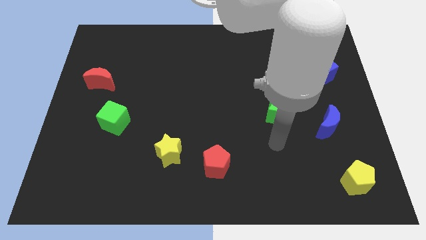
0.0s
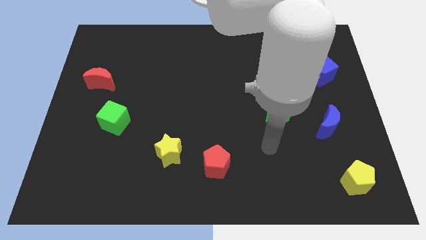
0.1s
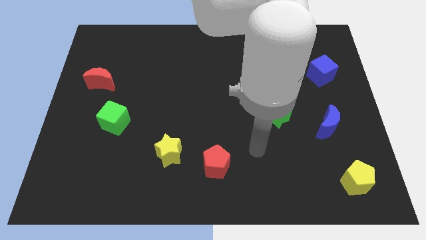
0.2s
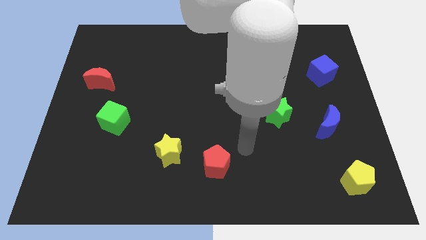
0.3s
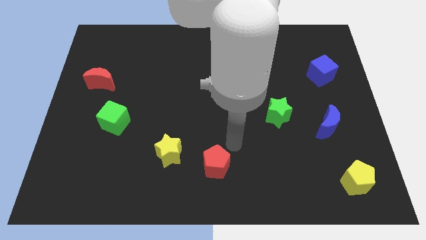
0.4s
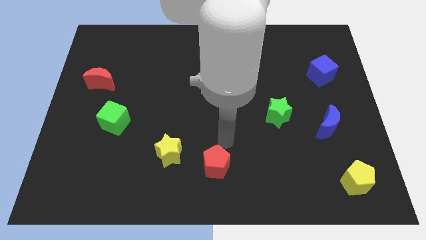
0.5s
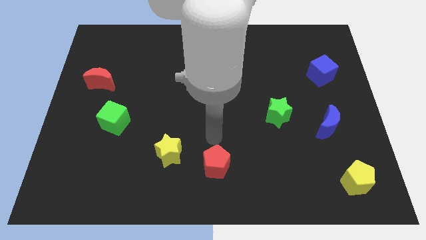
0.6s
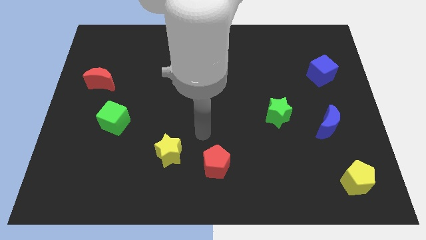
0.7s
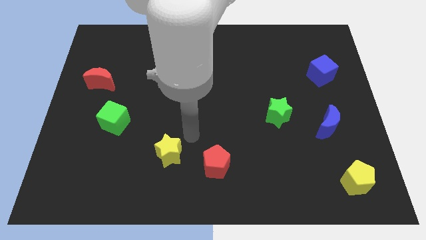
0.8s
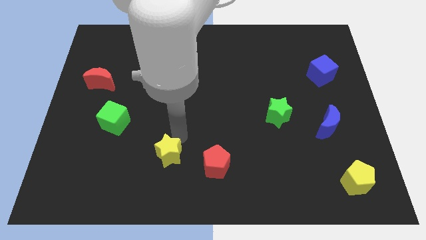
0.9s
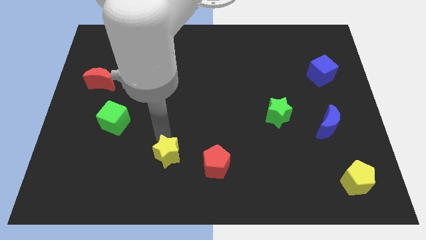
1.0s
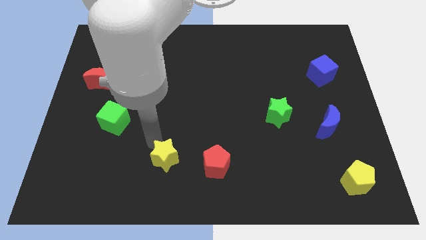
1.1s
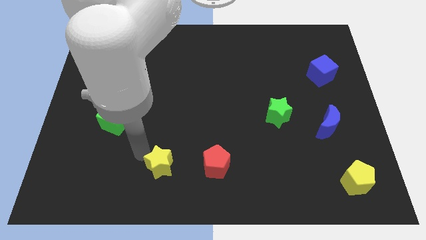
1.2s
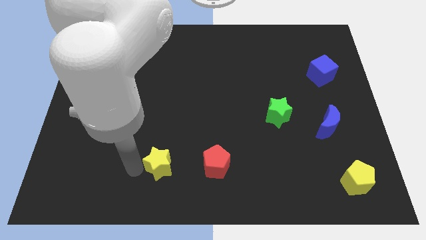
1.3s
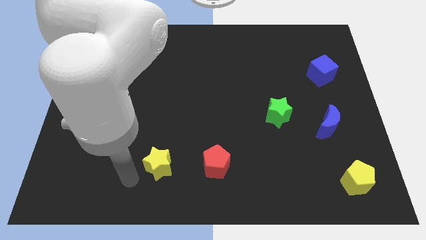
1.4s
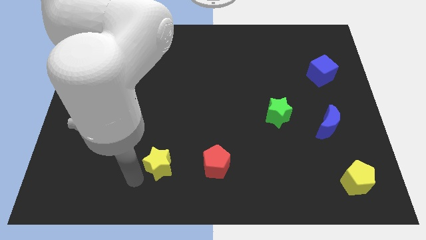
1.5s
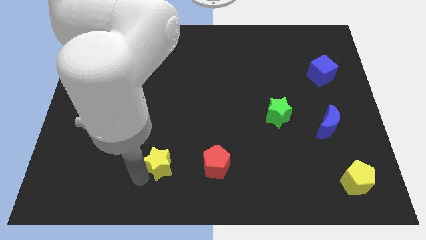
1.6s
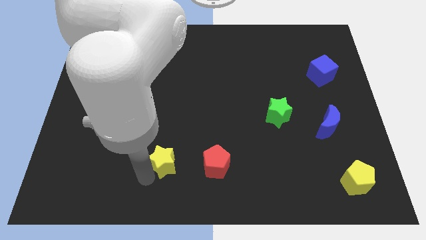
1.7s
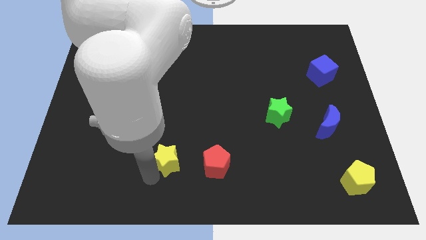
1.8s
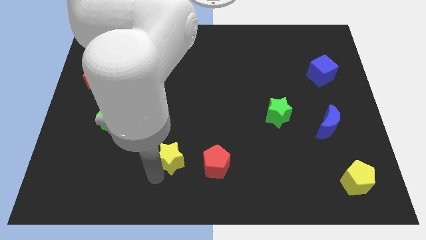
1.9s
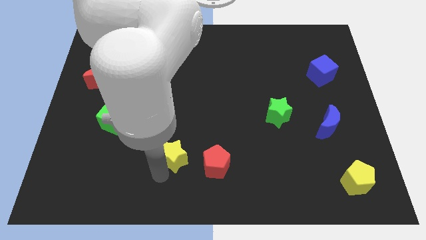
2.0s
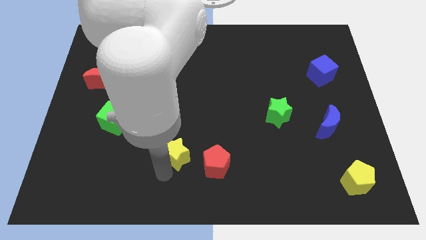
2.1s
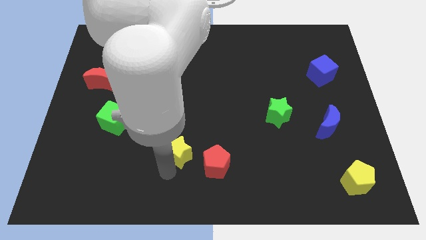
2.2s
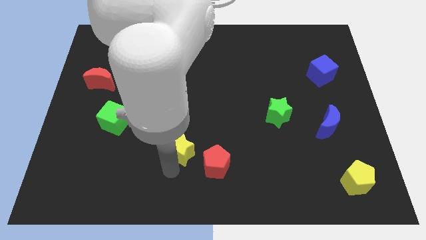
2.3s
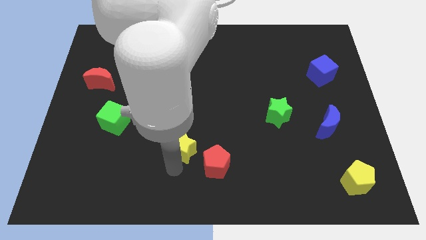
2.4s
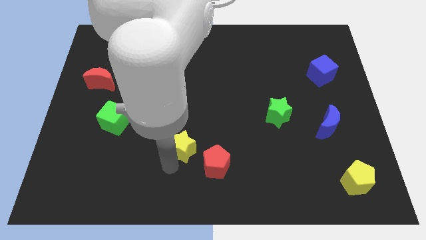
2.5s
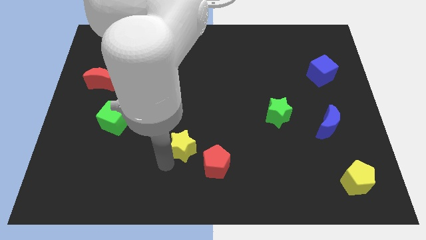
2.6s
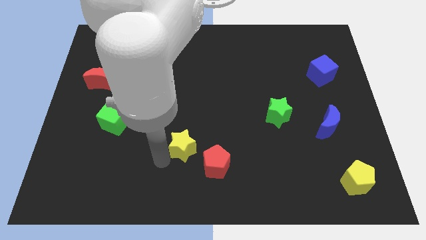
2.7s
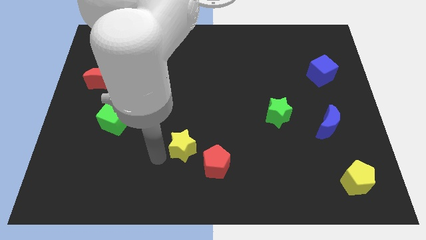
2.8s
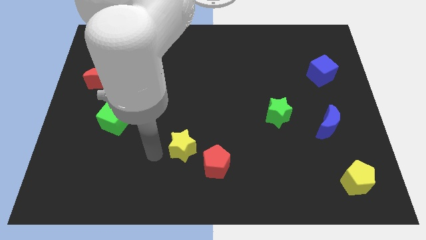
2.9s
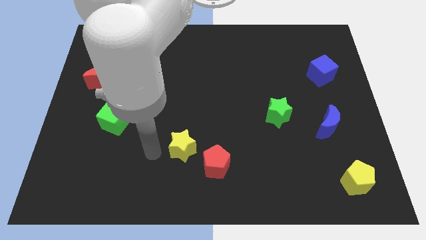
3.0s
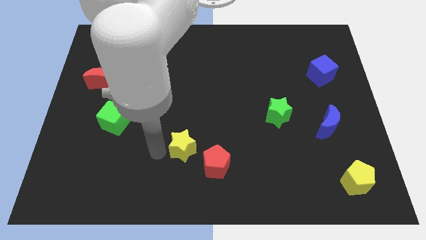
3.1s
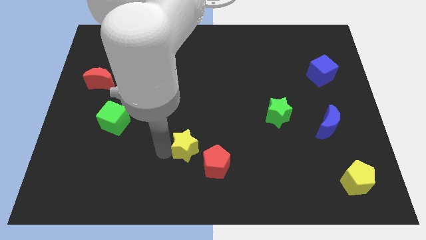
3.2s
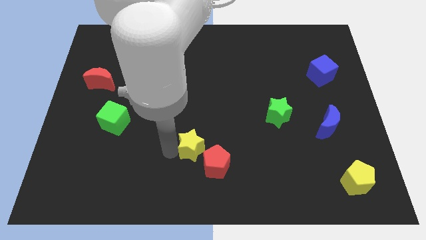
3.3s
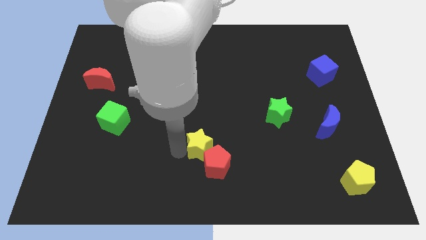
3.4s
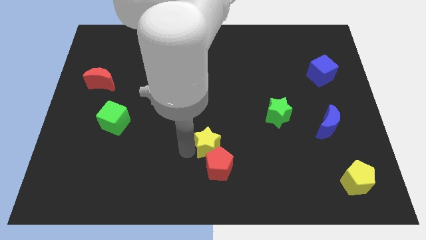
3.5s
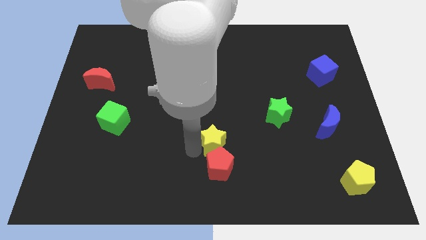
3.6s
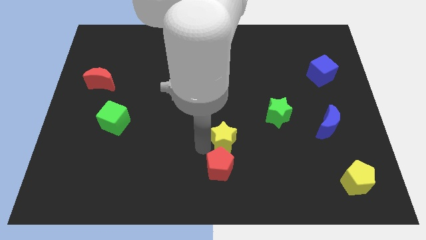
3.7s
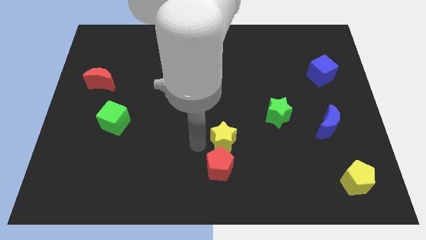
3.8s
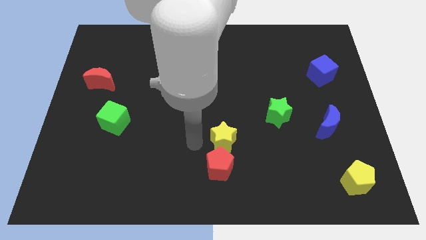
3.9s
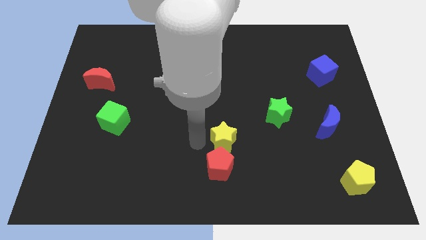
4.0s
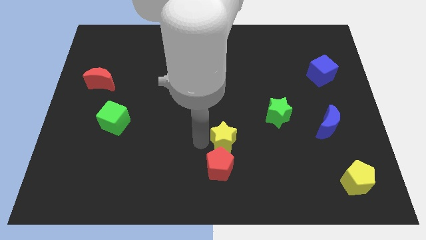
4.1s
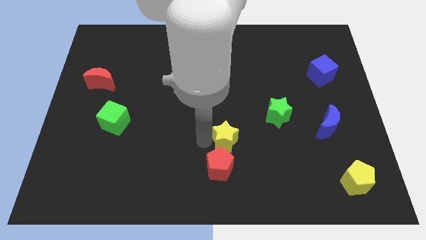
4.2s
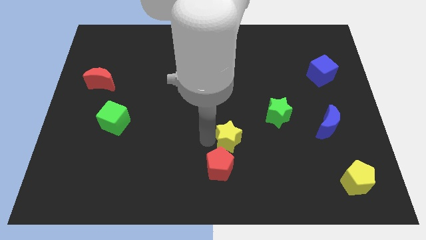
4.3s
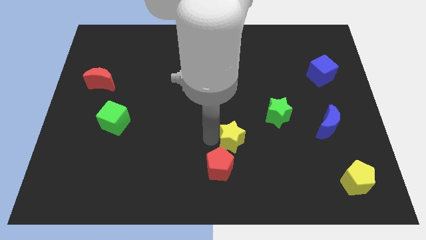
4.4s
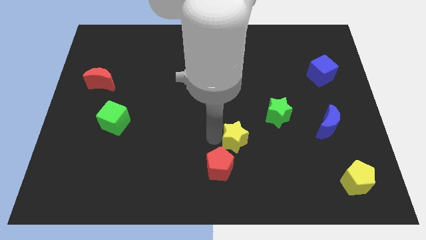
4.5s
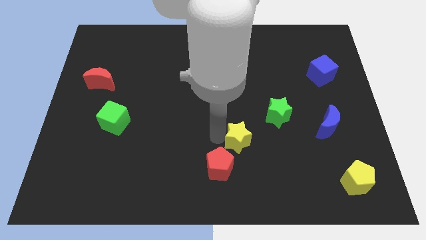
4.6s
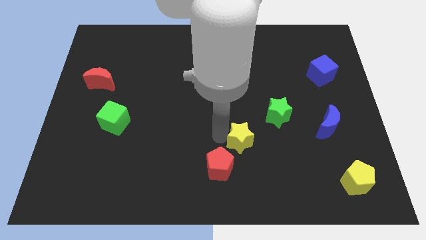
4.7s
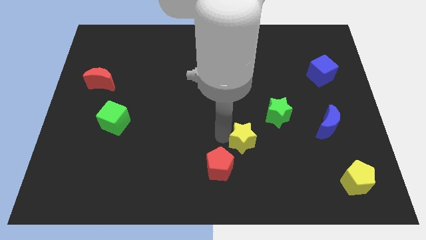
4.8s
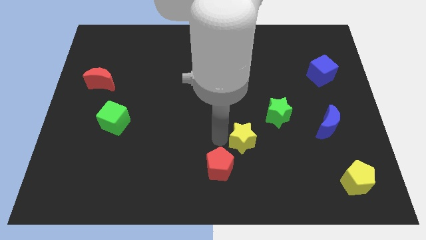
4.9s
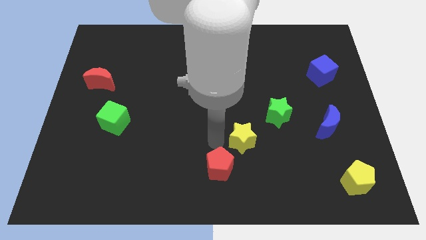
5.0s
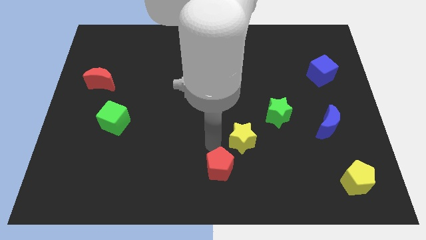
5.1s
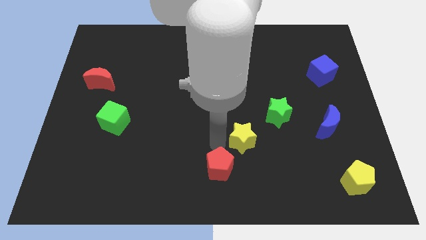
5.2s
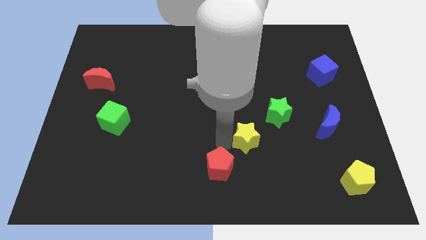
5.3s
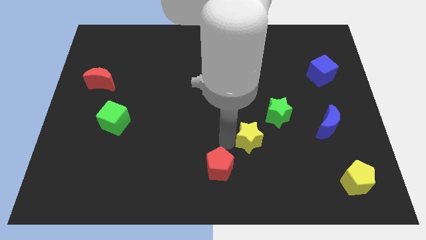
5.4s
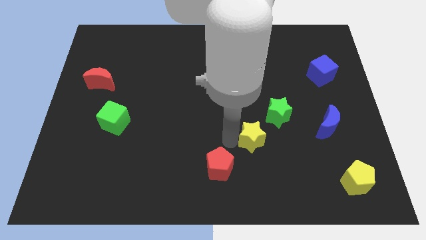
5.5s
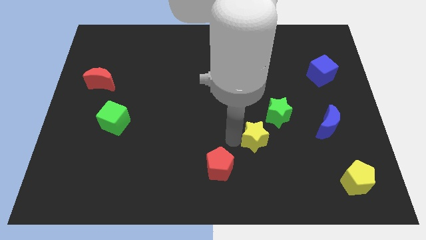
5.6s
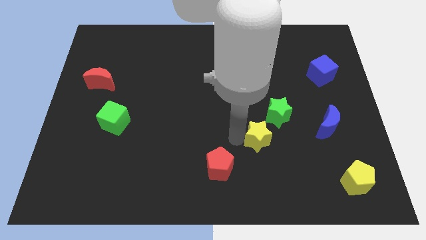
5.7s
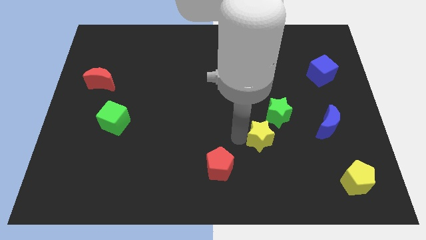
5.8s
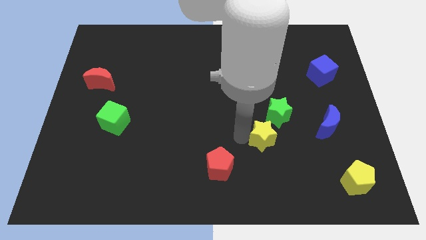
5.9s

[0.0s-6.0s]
push the yellow star right

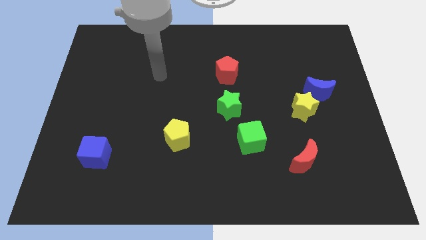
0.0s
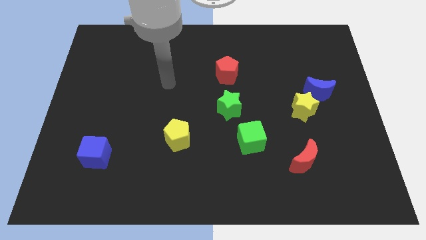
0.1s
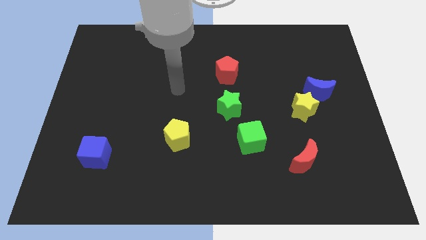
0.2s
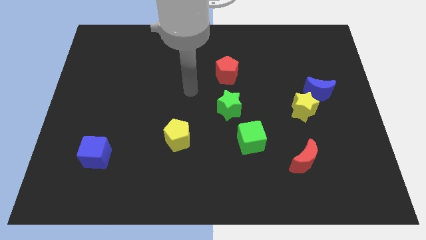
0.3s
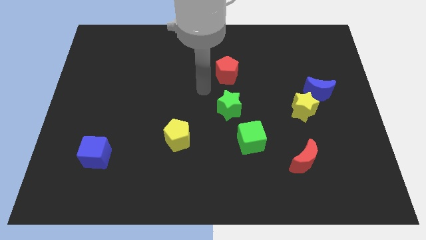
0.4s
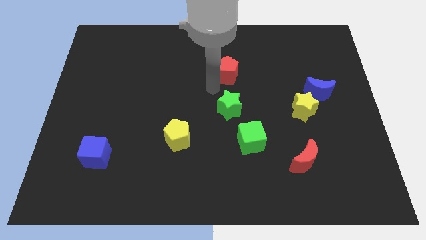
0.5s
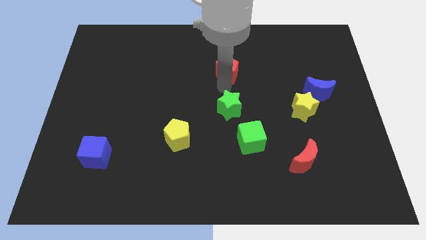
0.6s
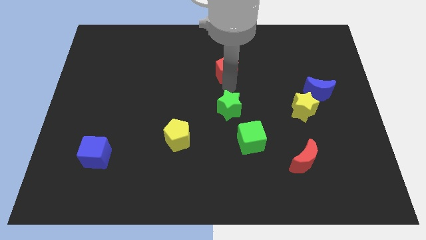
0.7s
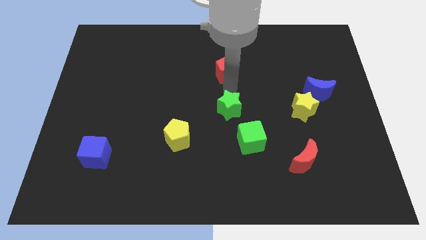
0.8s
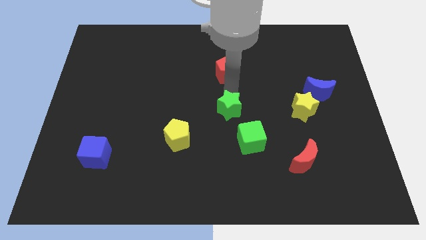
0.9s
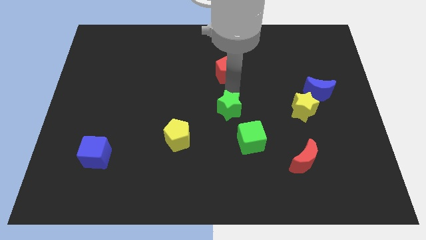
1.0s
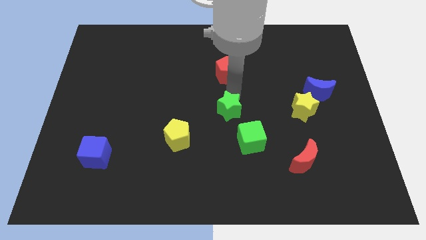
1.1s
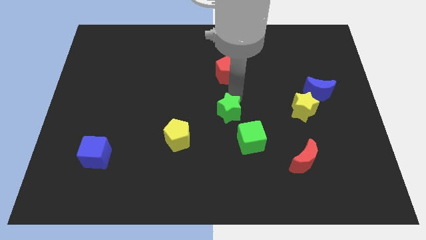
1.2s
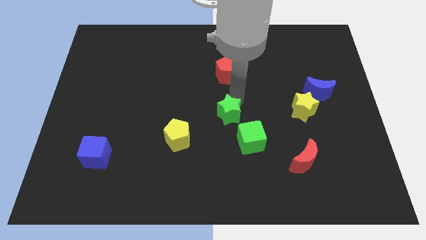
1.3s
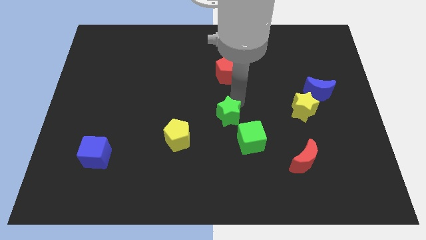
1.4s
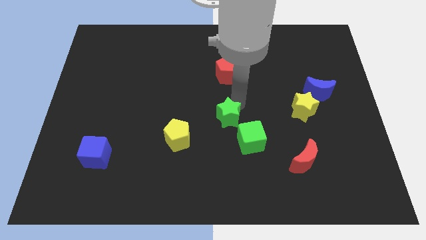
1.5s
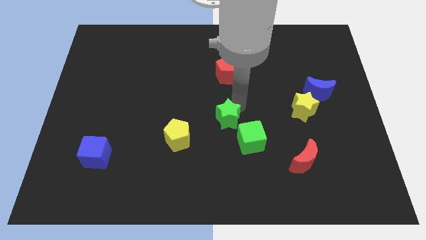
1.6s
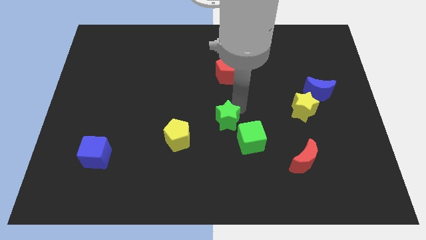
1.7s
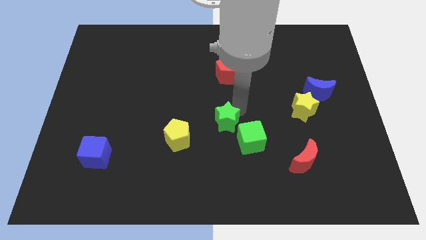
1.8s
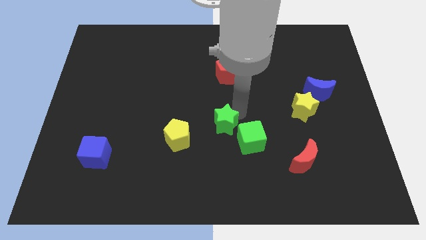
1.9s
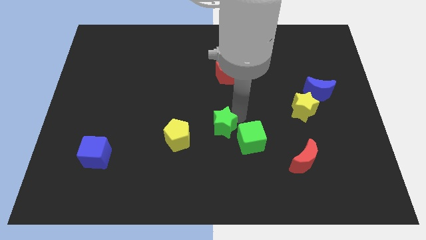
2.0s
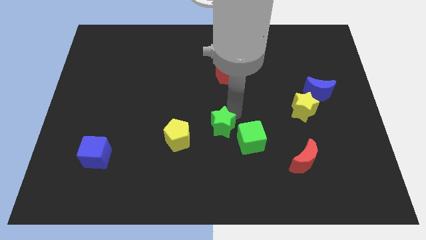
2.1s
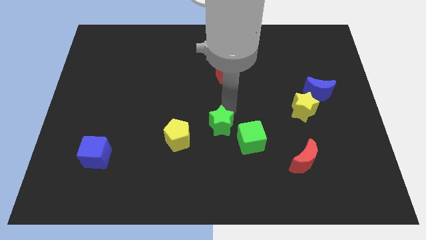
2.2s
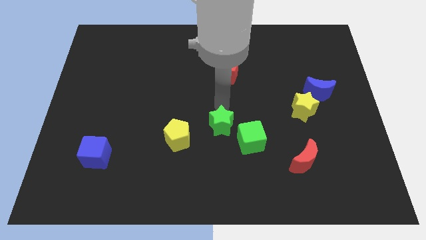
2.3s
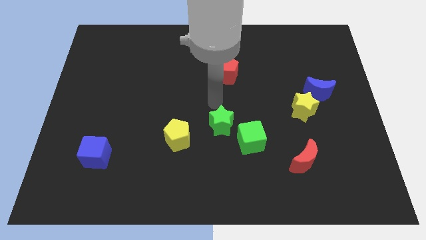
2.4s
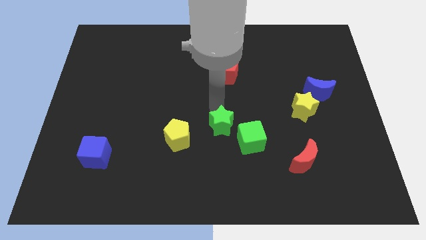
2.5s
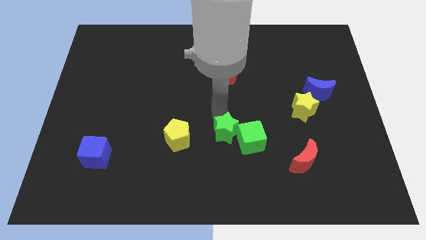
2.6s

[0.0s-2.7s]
slide the green star slightly downwards
